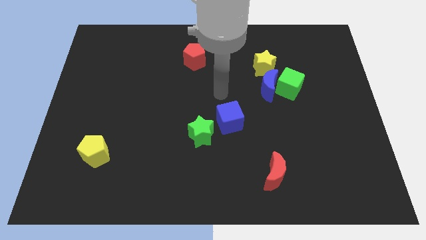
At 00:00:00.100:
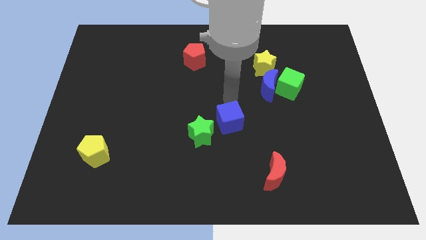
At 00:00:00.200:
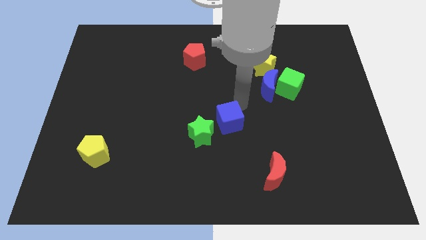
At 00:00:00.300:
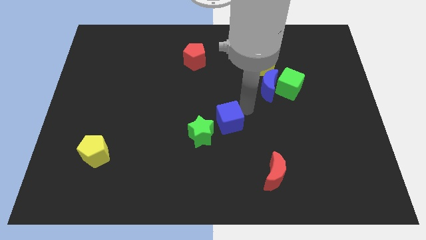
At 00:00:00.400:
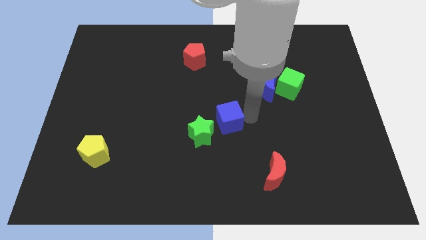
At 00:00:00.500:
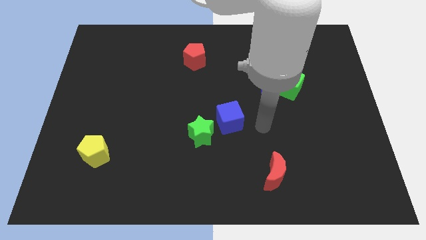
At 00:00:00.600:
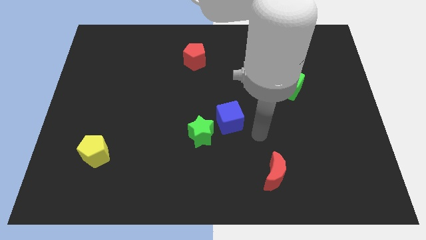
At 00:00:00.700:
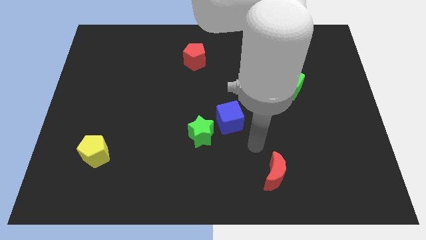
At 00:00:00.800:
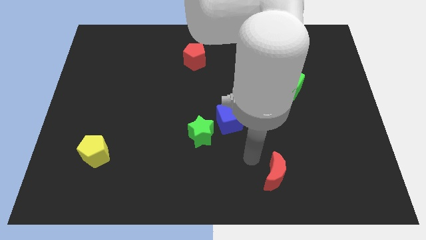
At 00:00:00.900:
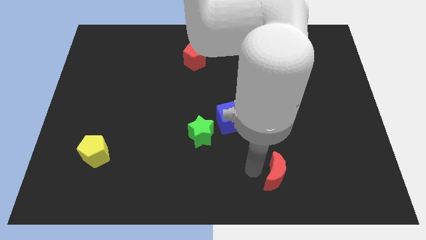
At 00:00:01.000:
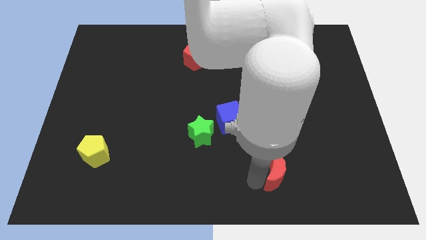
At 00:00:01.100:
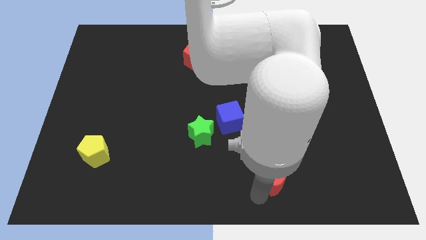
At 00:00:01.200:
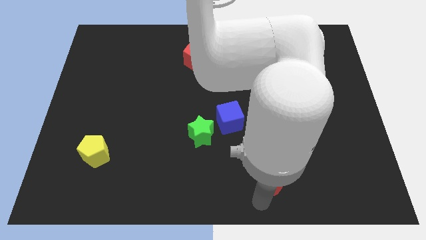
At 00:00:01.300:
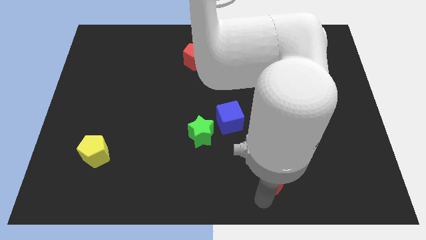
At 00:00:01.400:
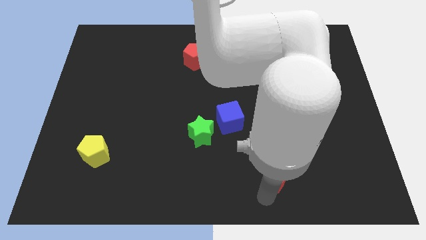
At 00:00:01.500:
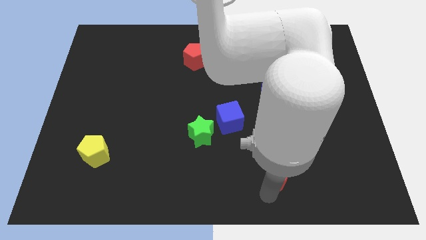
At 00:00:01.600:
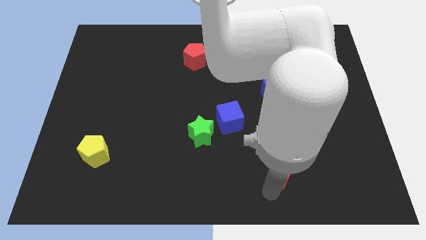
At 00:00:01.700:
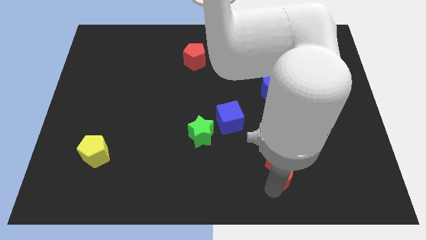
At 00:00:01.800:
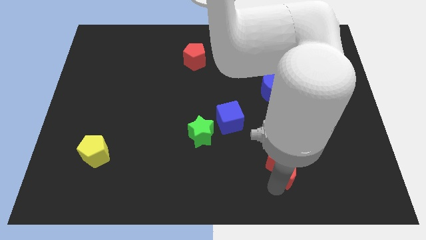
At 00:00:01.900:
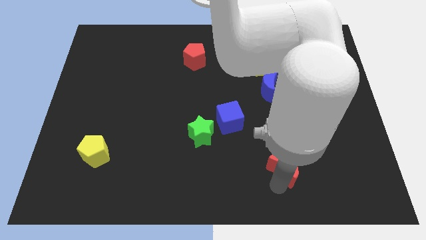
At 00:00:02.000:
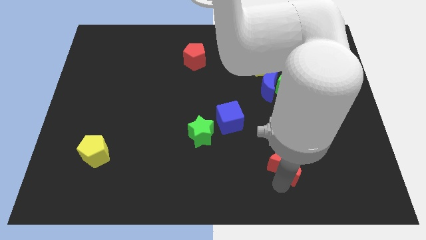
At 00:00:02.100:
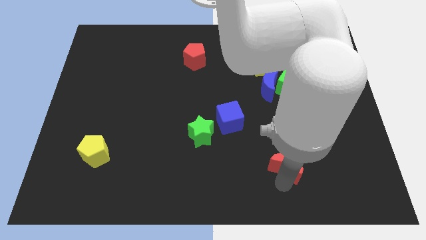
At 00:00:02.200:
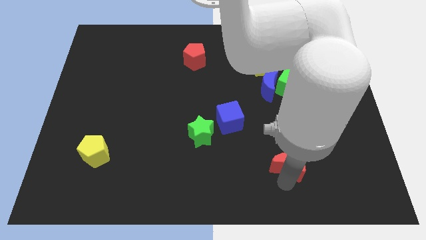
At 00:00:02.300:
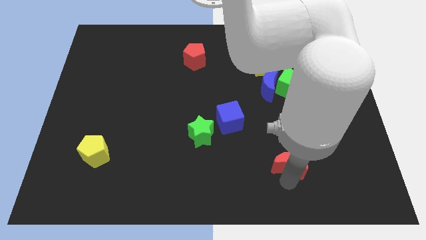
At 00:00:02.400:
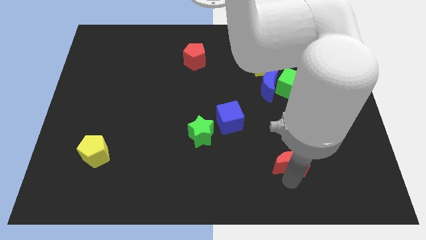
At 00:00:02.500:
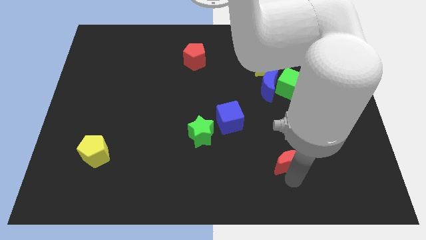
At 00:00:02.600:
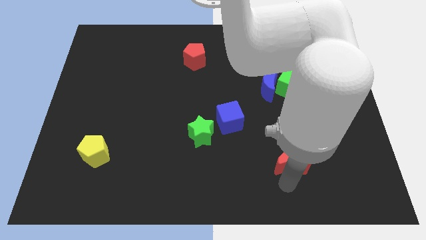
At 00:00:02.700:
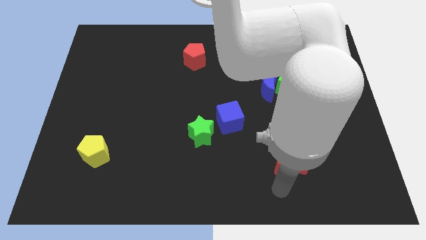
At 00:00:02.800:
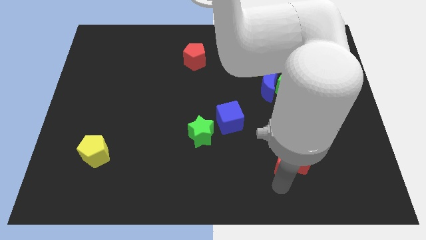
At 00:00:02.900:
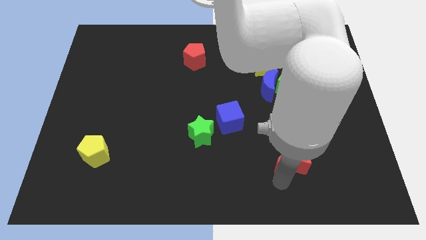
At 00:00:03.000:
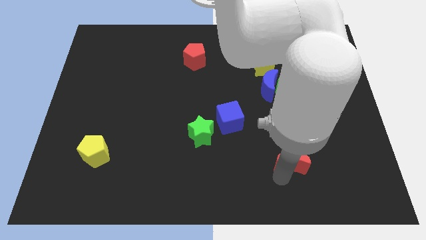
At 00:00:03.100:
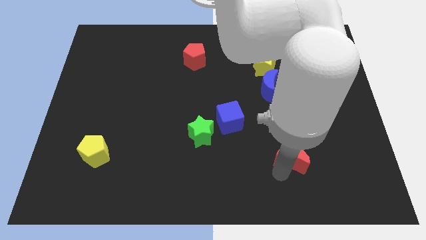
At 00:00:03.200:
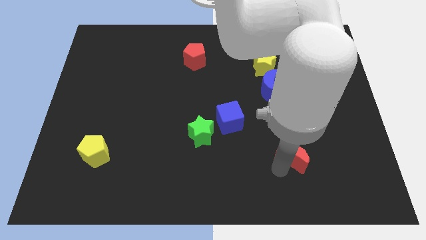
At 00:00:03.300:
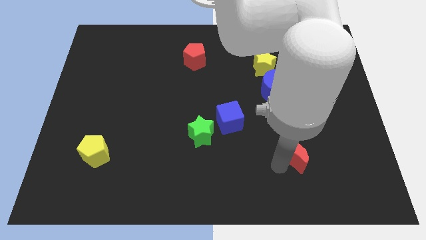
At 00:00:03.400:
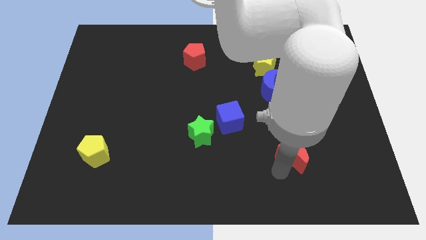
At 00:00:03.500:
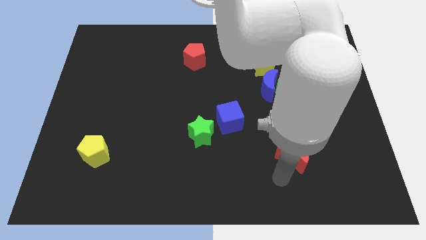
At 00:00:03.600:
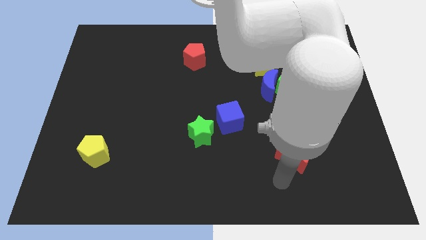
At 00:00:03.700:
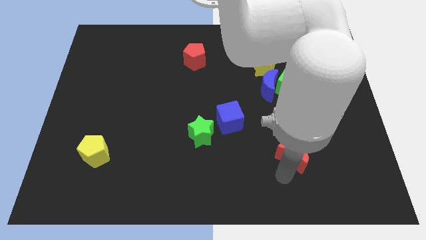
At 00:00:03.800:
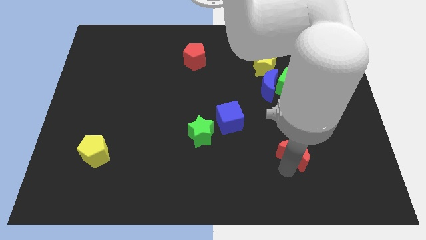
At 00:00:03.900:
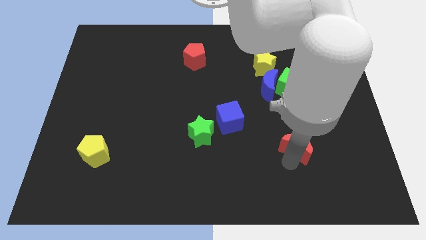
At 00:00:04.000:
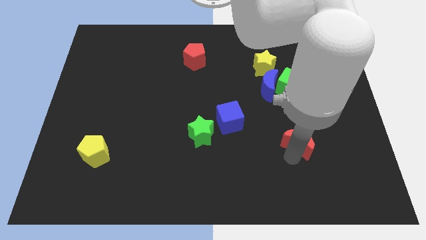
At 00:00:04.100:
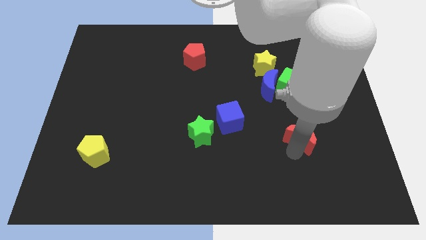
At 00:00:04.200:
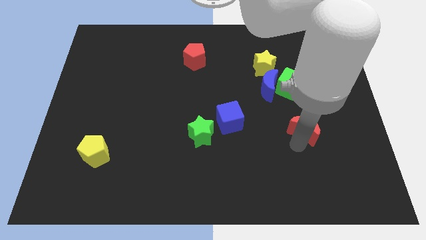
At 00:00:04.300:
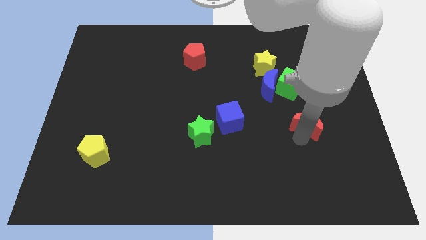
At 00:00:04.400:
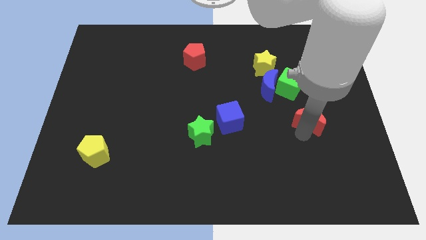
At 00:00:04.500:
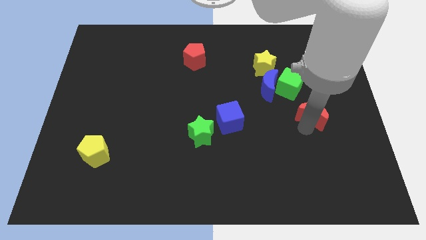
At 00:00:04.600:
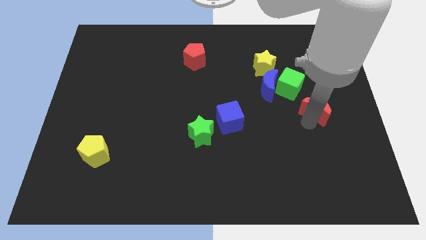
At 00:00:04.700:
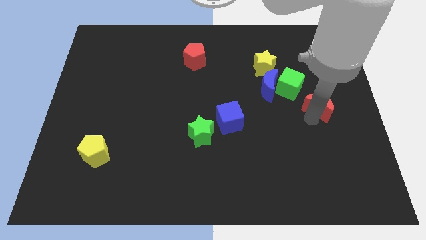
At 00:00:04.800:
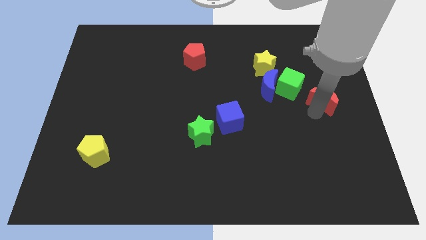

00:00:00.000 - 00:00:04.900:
move the red moon to the right side of the green cube
